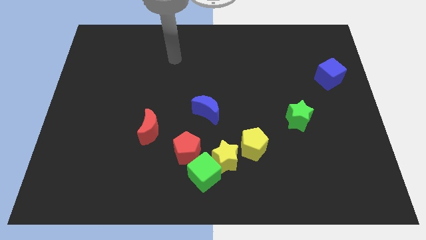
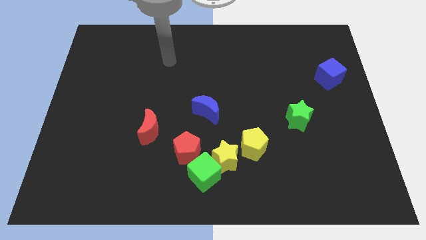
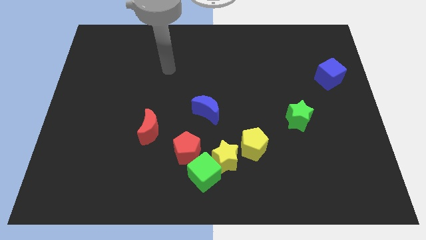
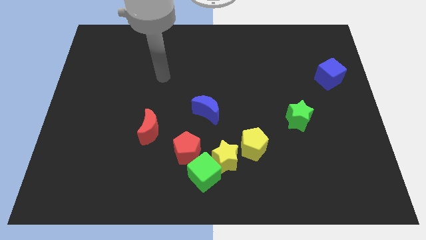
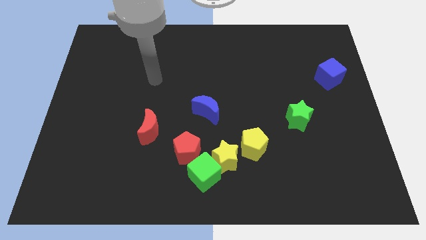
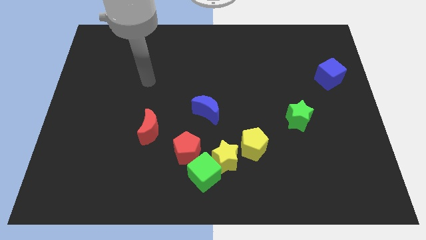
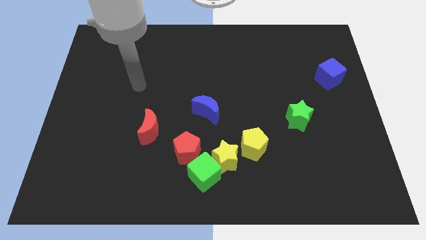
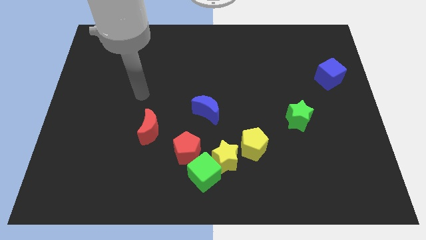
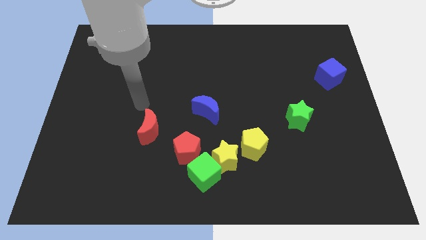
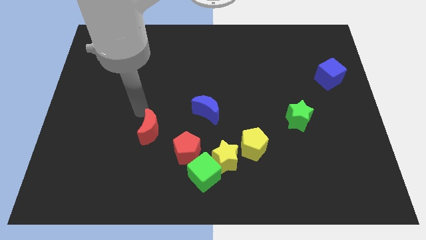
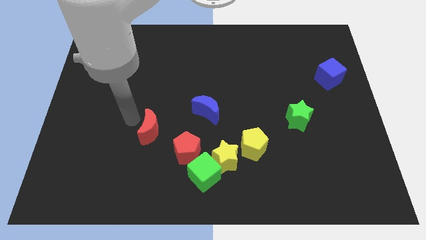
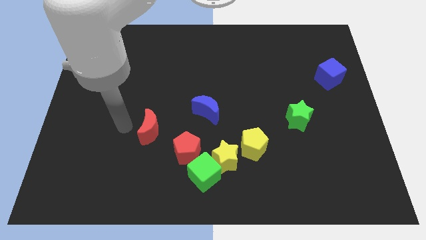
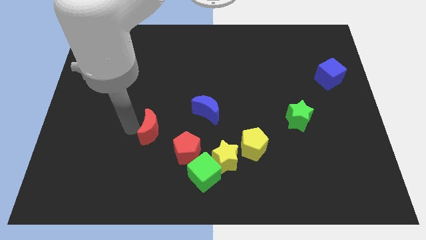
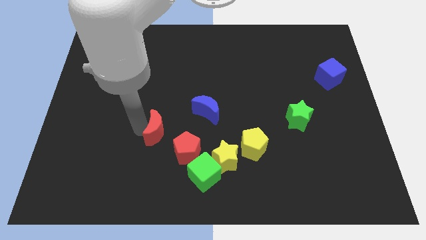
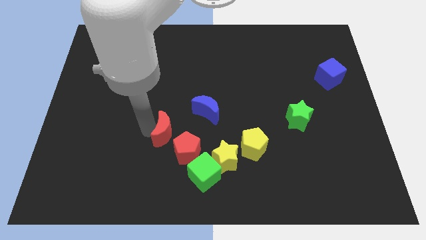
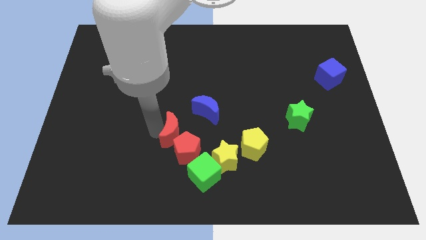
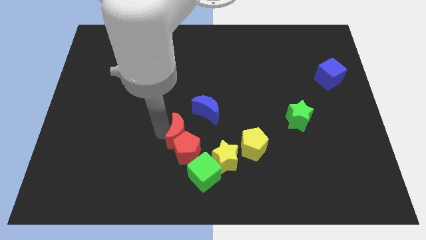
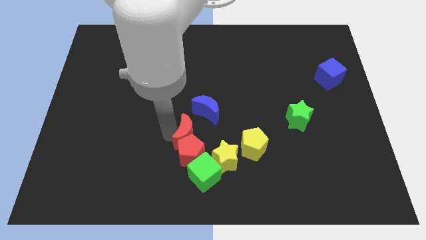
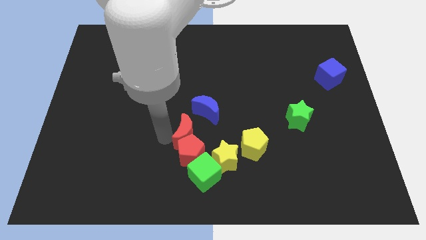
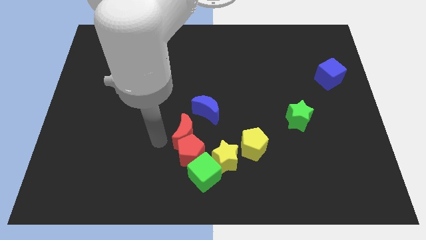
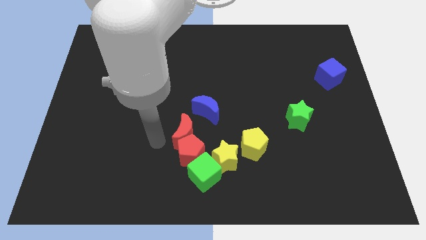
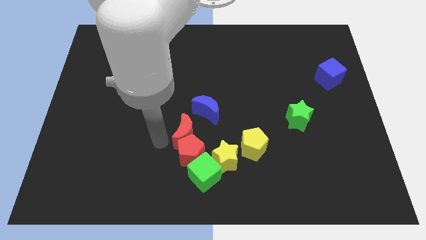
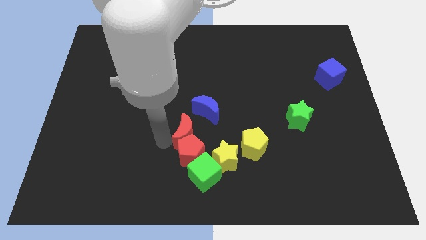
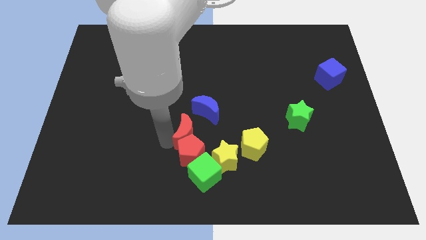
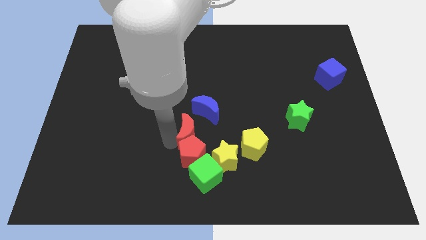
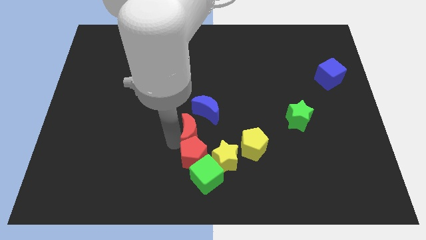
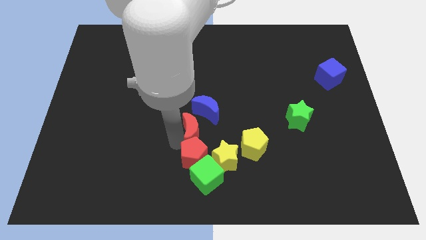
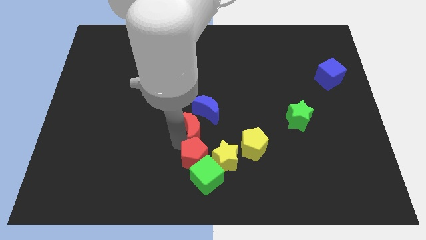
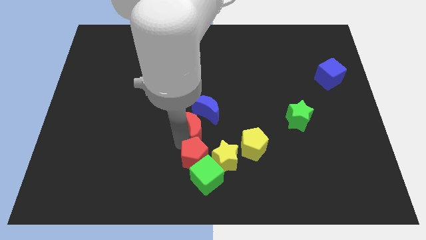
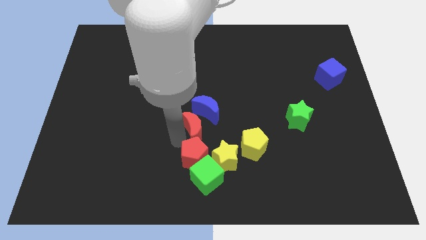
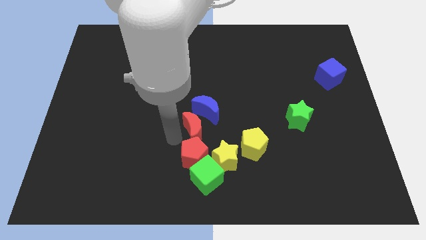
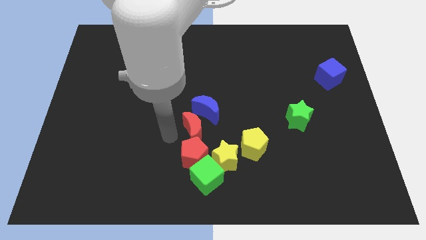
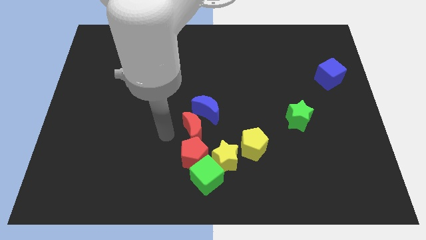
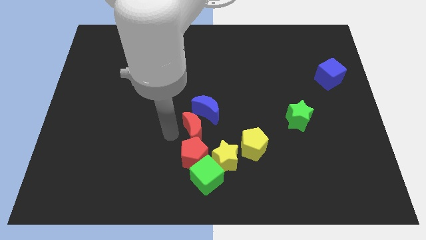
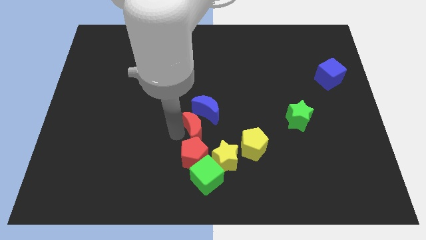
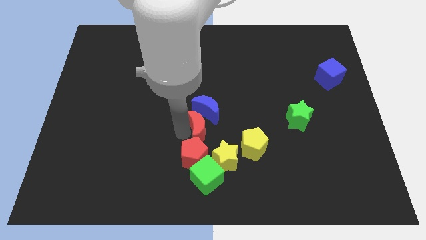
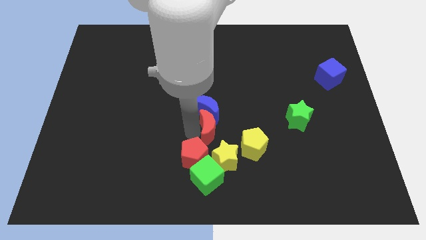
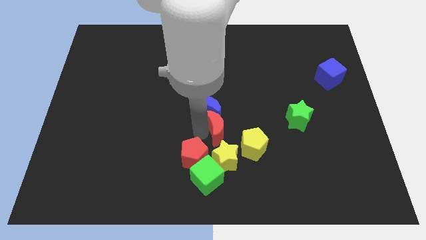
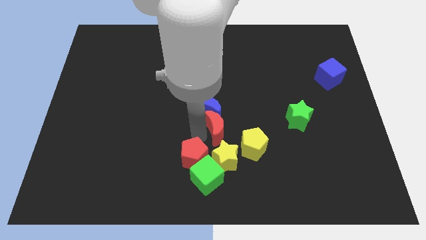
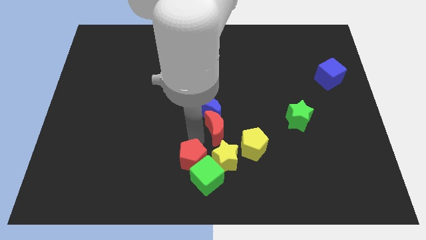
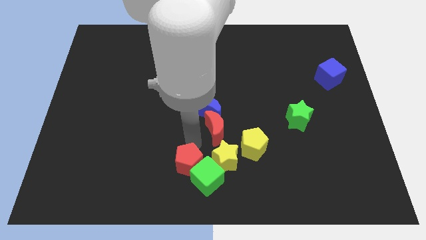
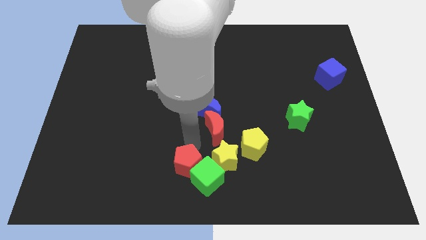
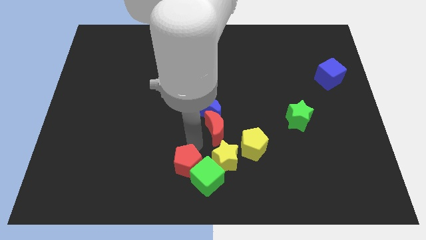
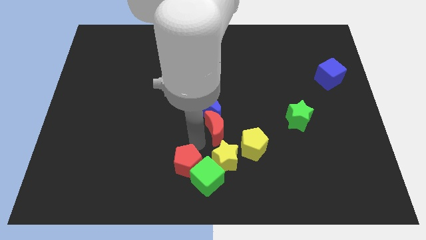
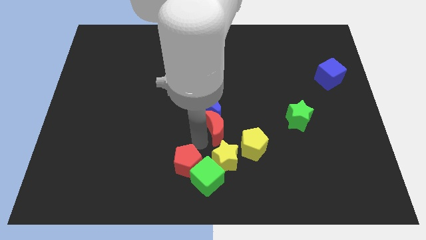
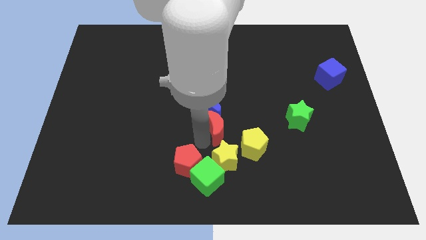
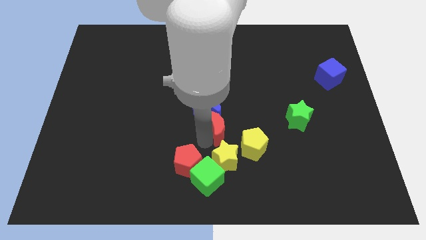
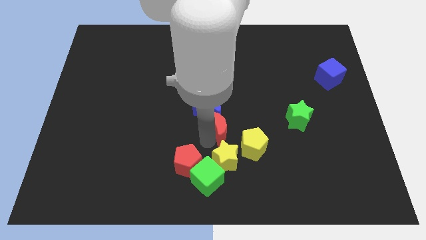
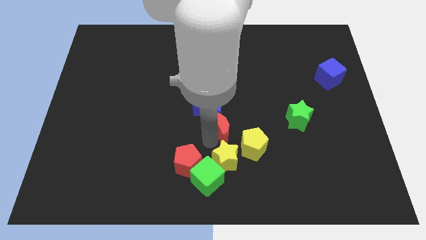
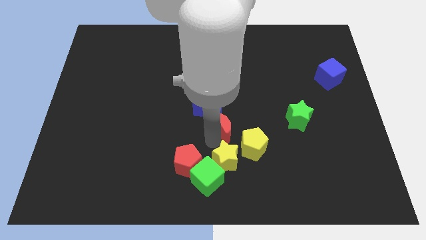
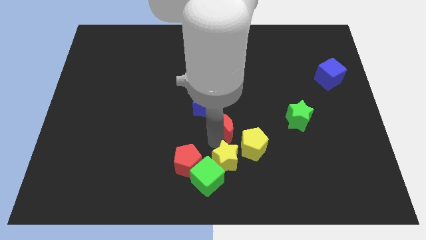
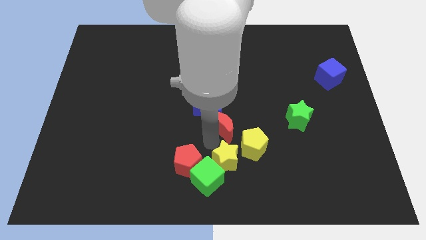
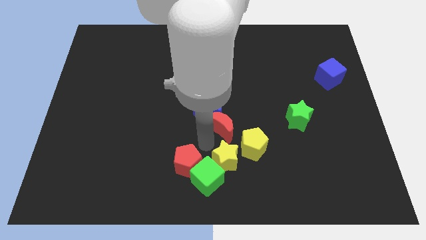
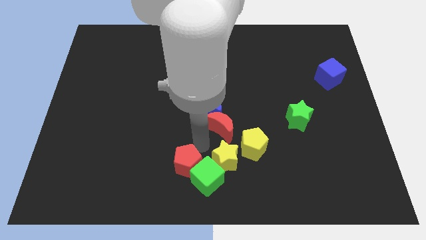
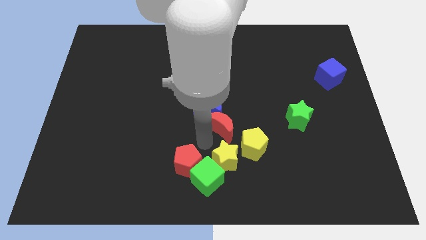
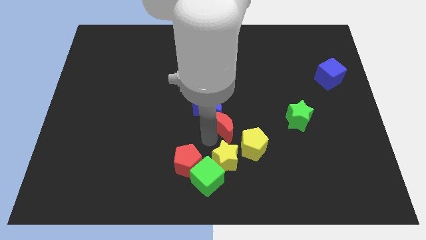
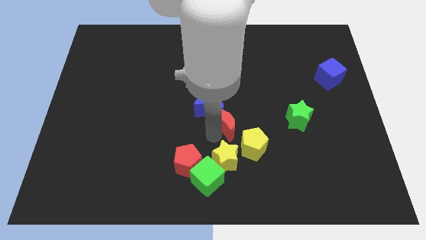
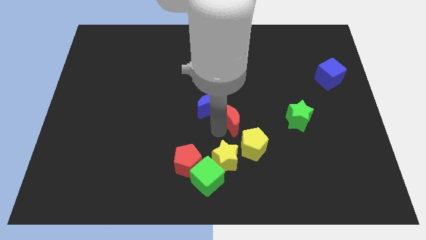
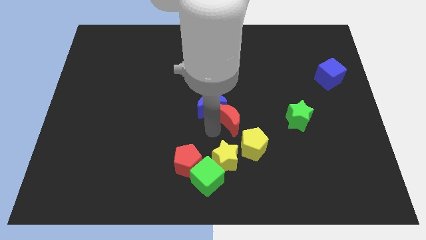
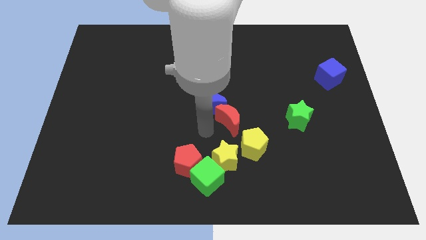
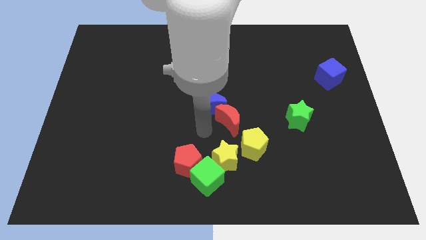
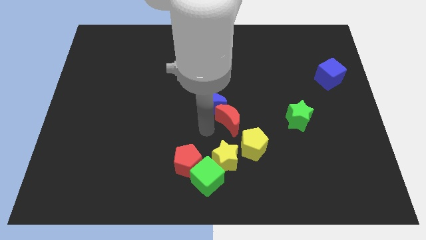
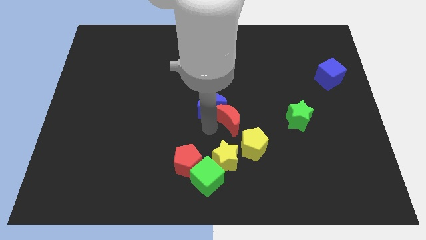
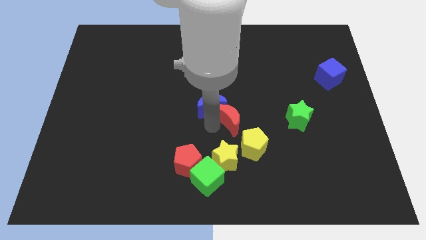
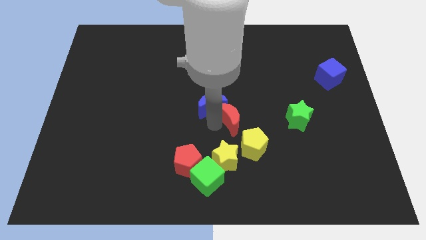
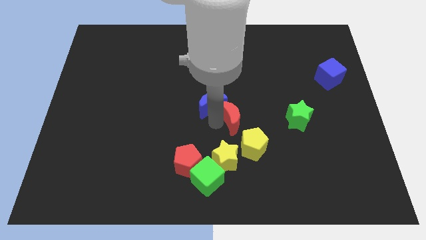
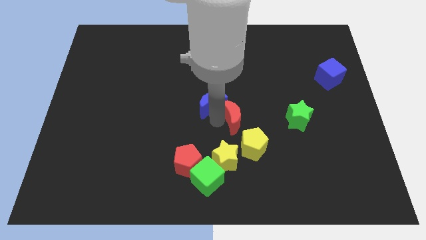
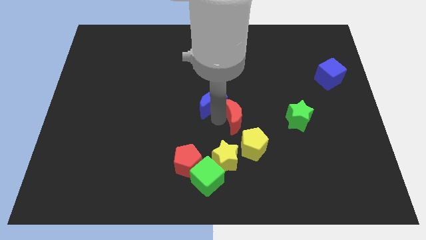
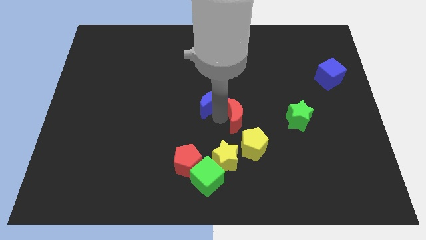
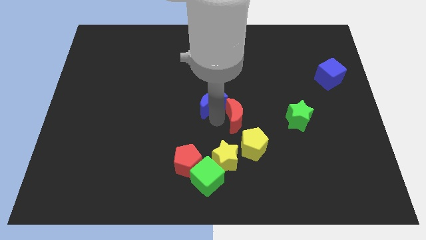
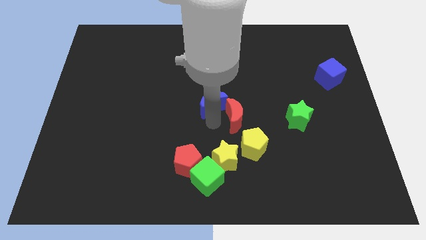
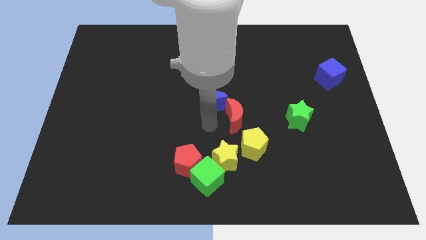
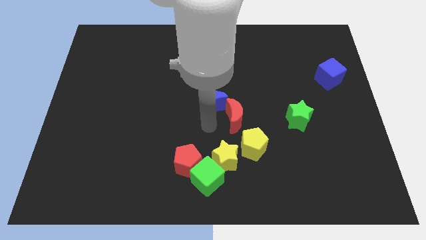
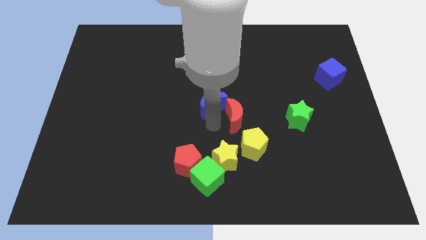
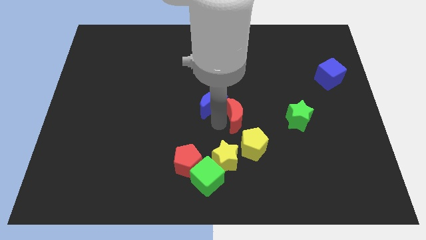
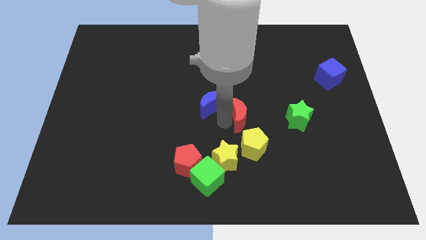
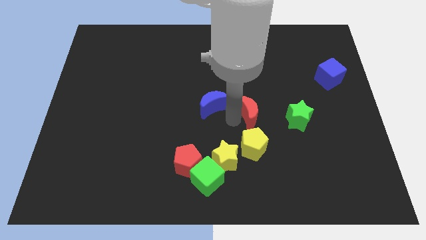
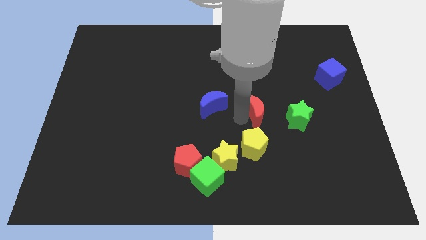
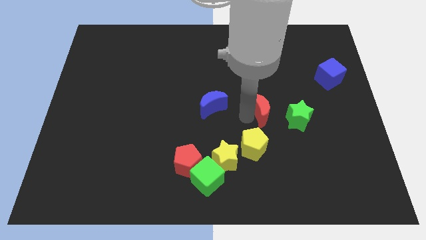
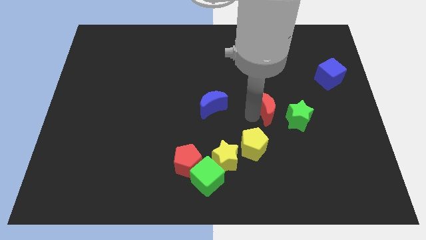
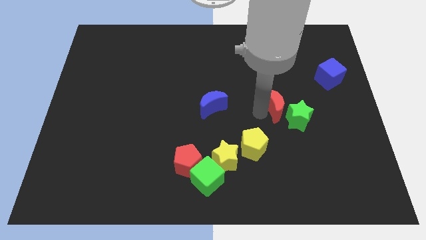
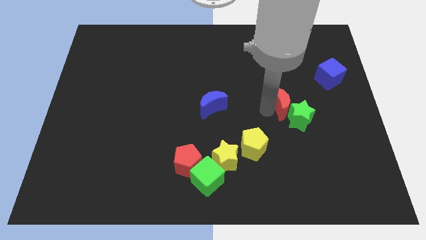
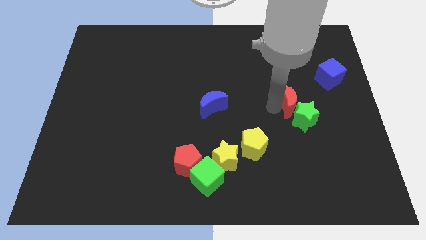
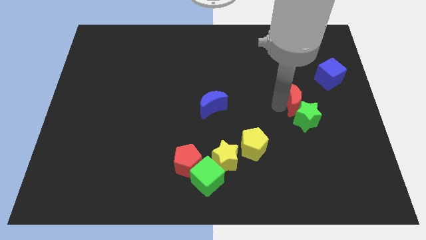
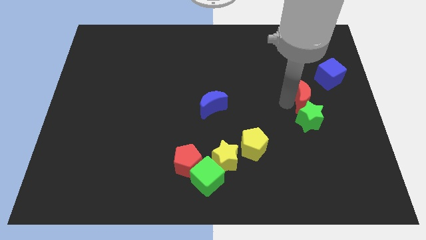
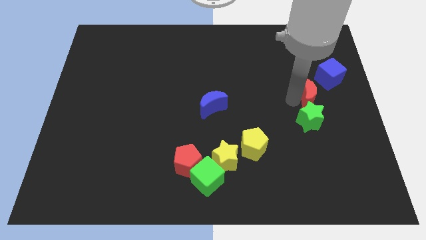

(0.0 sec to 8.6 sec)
move the red moon diagonally up and to the right of the green star
